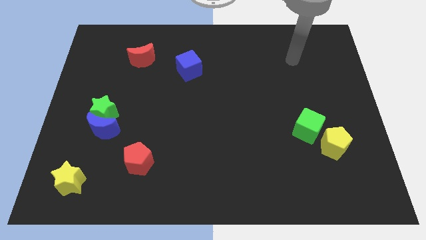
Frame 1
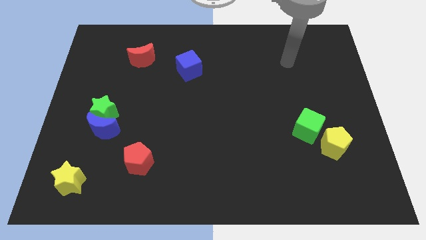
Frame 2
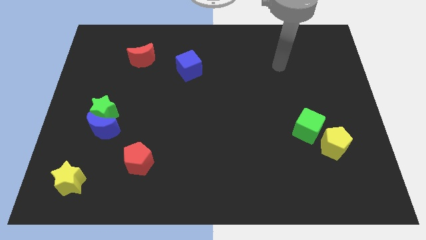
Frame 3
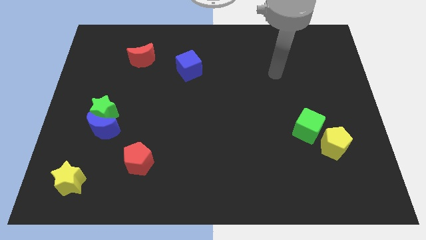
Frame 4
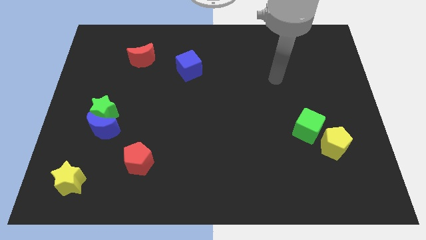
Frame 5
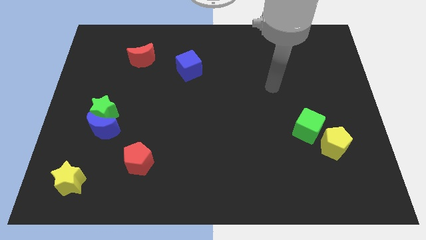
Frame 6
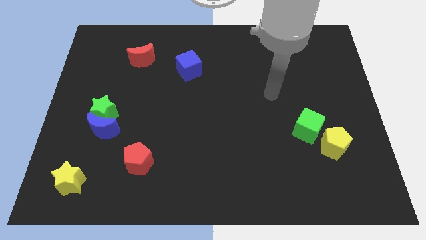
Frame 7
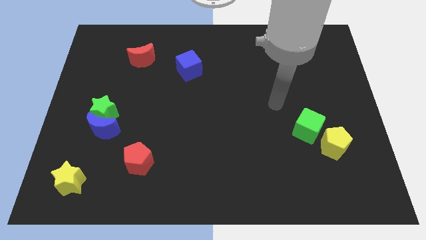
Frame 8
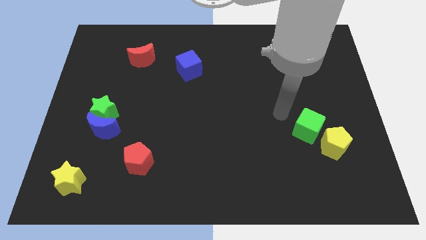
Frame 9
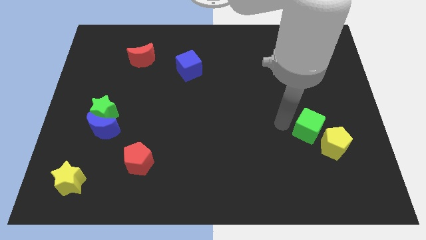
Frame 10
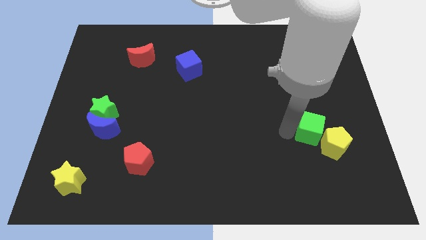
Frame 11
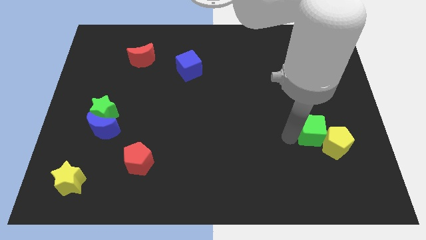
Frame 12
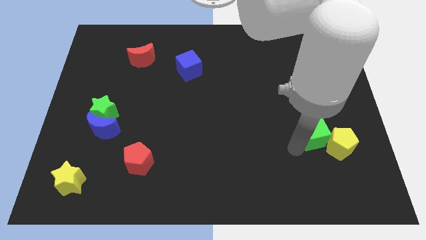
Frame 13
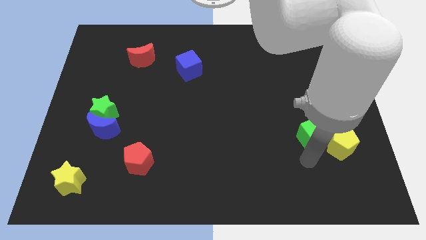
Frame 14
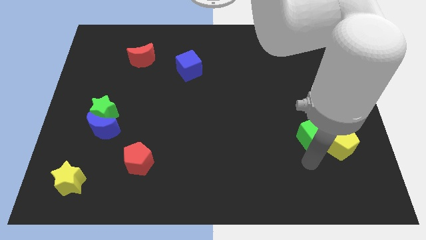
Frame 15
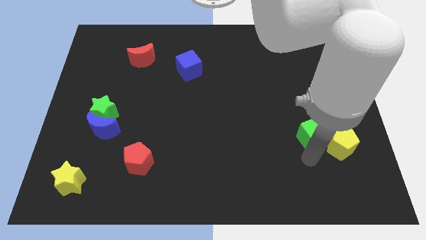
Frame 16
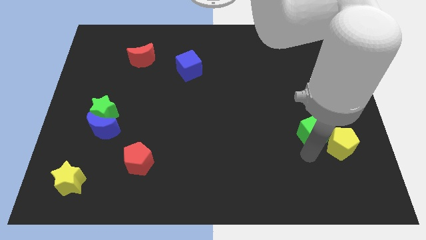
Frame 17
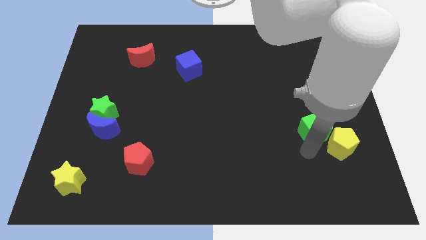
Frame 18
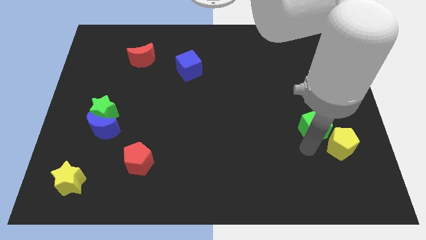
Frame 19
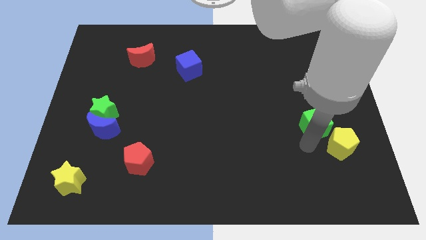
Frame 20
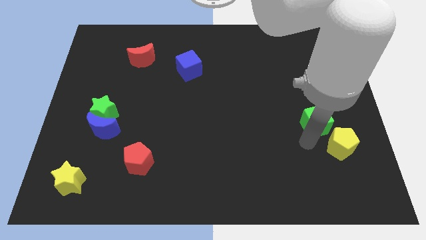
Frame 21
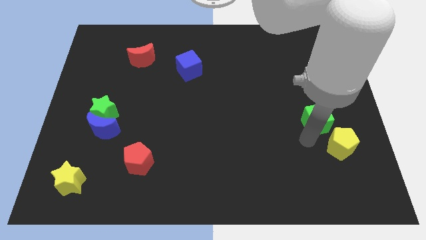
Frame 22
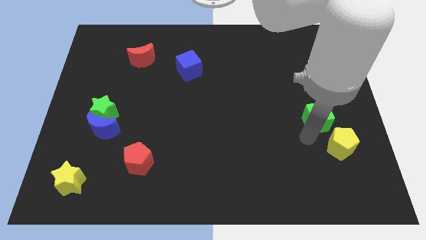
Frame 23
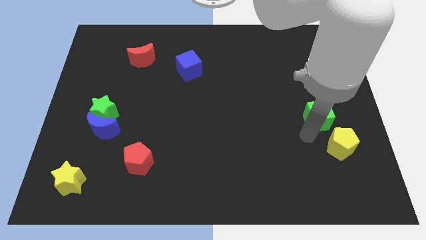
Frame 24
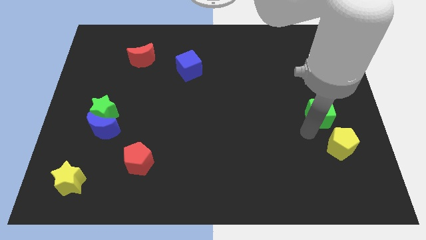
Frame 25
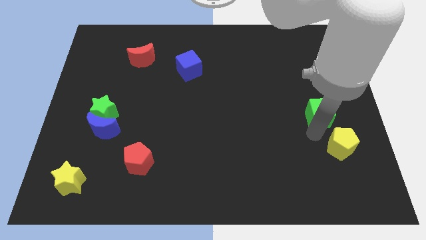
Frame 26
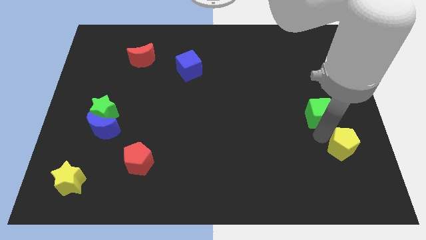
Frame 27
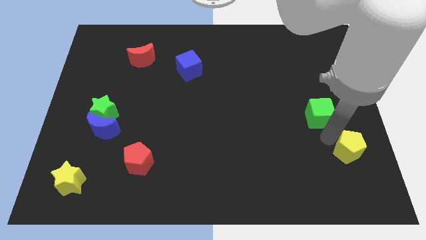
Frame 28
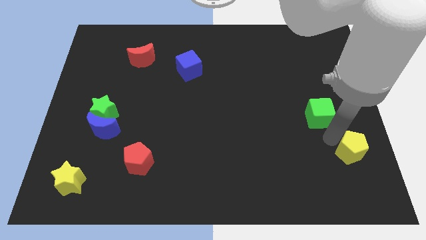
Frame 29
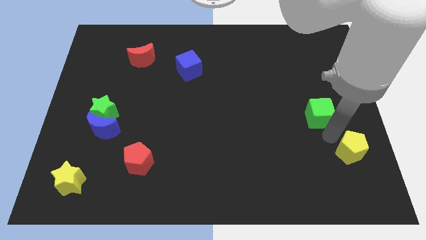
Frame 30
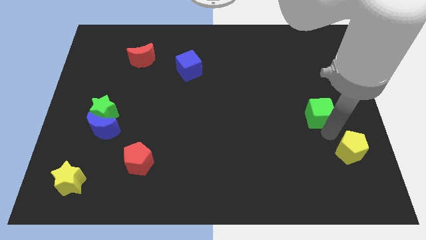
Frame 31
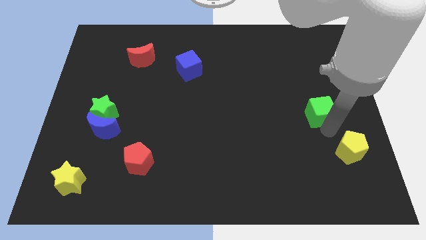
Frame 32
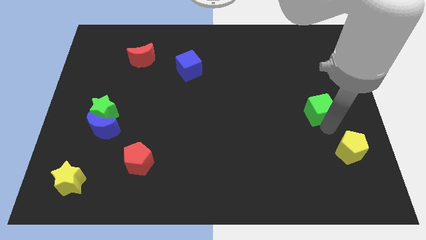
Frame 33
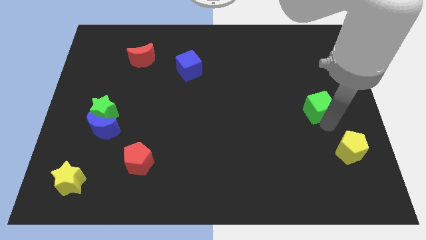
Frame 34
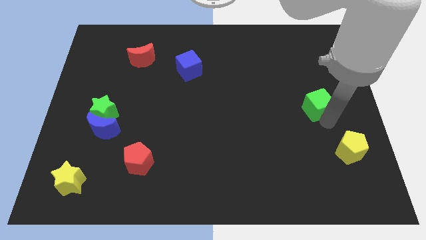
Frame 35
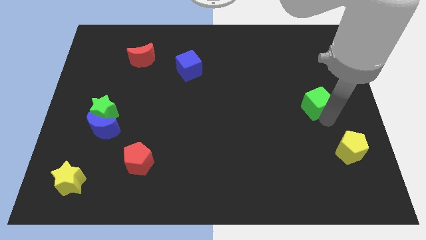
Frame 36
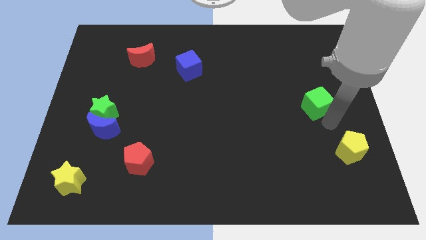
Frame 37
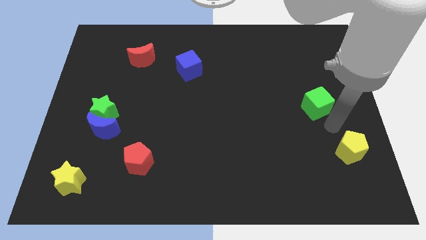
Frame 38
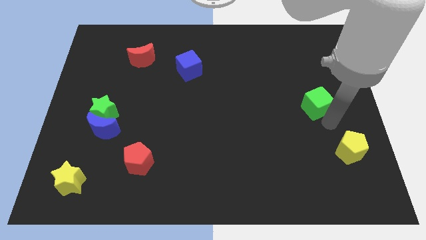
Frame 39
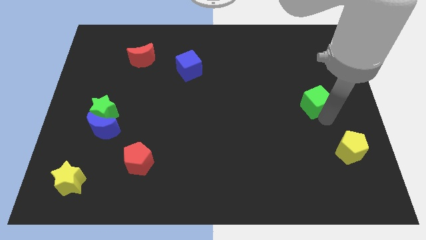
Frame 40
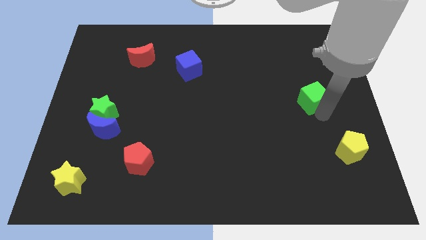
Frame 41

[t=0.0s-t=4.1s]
move the green cube a little upwards

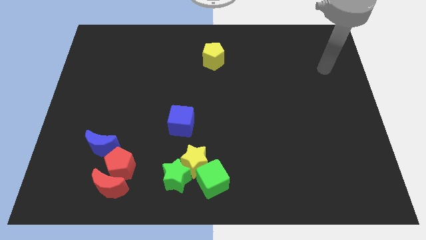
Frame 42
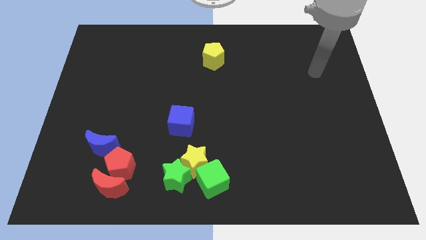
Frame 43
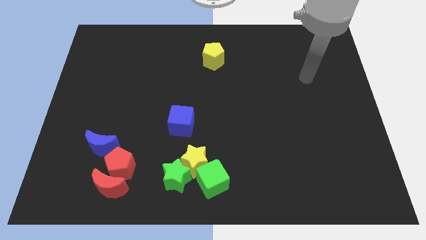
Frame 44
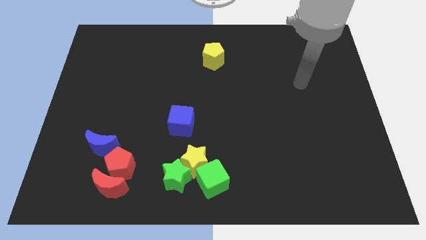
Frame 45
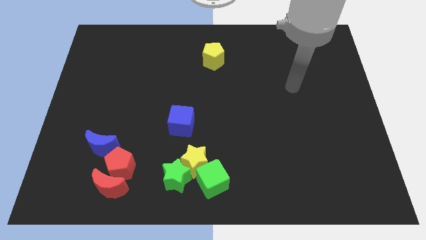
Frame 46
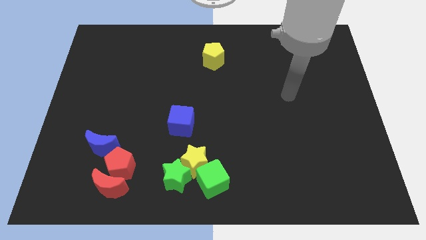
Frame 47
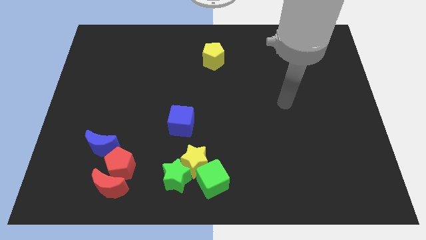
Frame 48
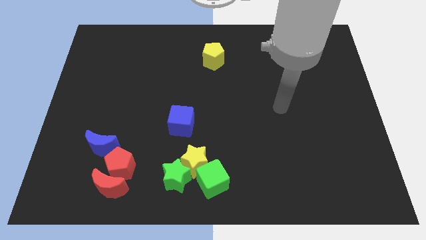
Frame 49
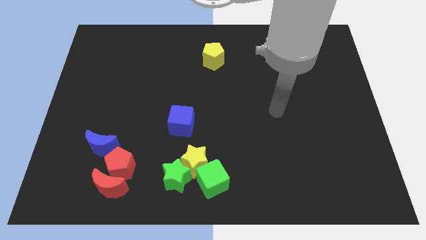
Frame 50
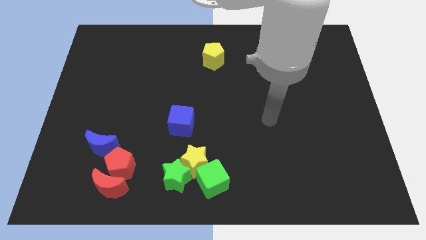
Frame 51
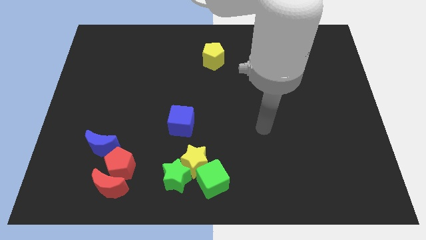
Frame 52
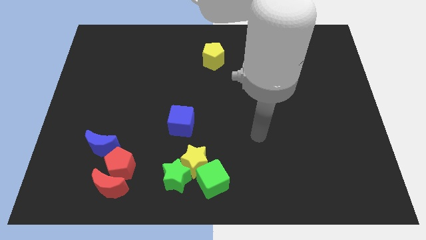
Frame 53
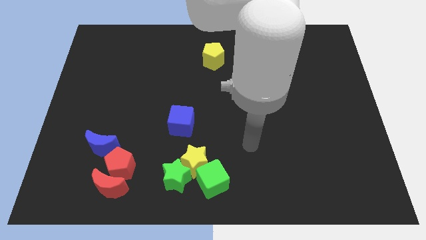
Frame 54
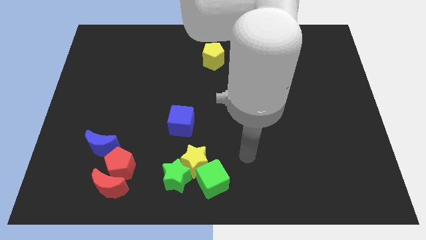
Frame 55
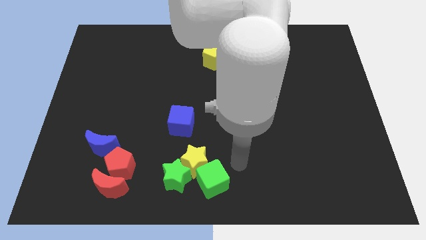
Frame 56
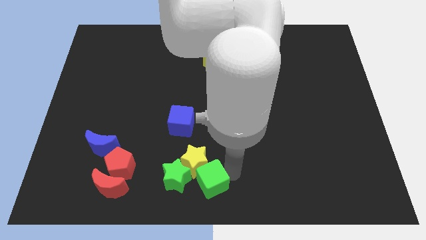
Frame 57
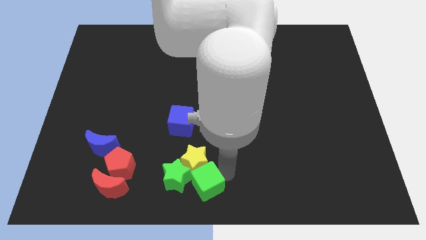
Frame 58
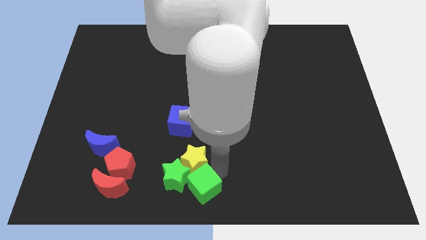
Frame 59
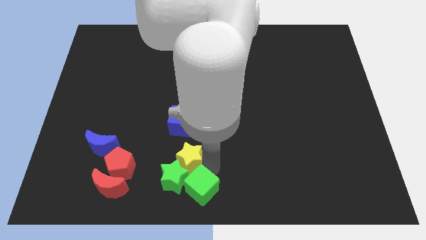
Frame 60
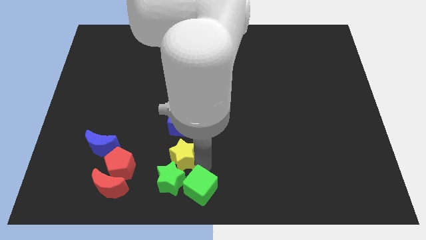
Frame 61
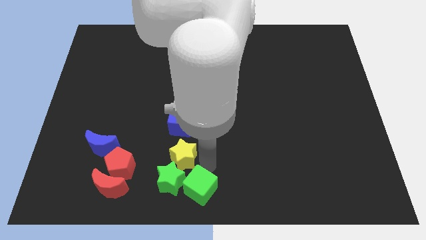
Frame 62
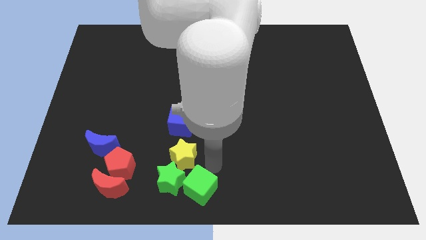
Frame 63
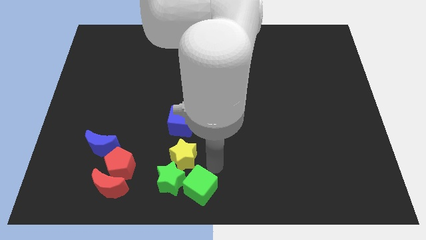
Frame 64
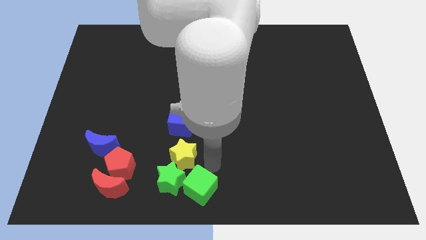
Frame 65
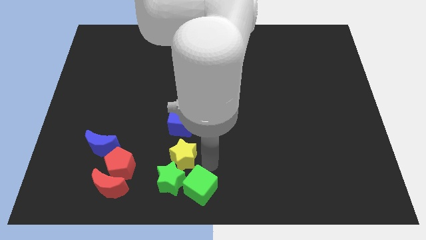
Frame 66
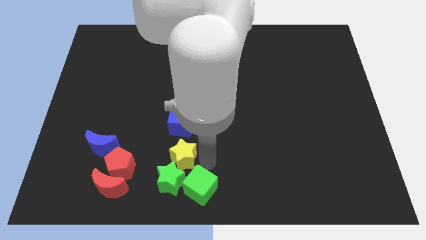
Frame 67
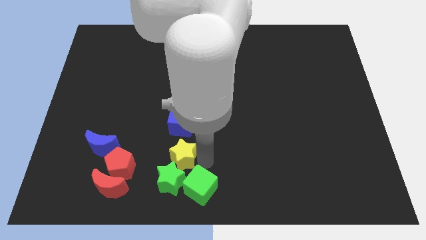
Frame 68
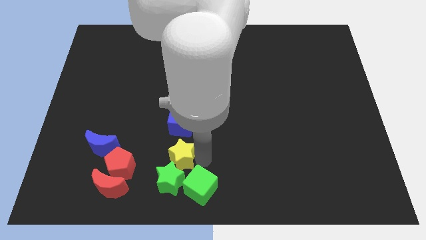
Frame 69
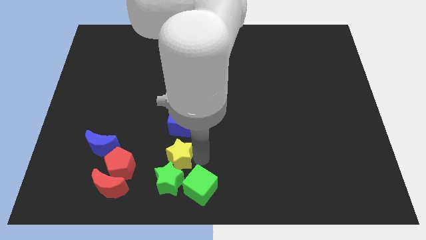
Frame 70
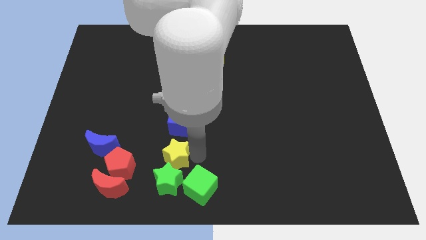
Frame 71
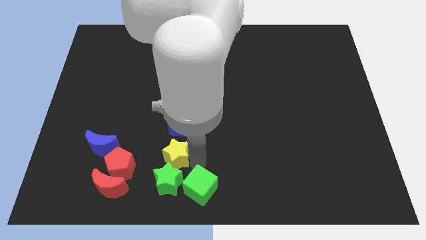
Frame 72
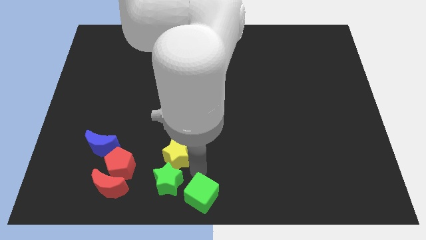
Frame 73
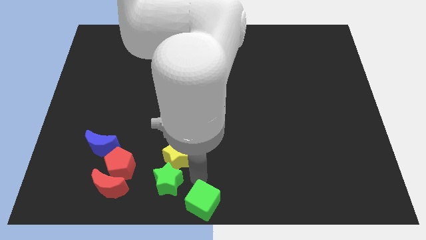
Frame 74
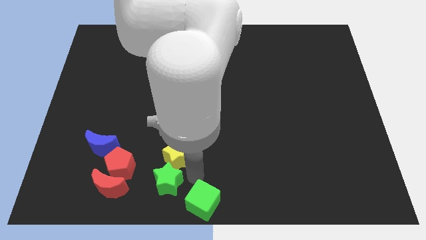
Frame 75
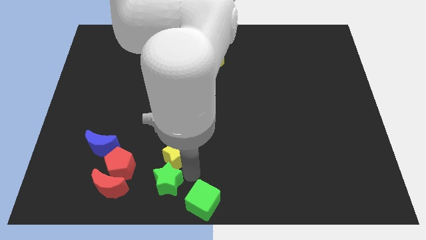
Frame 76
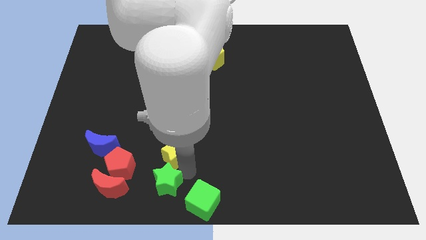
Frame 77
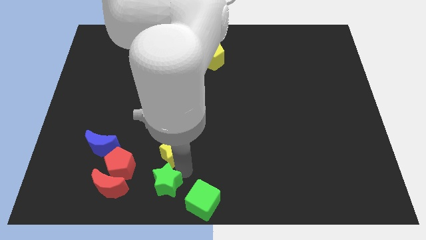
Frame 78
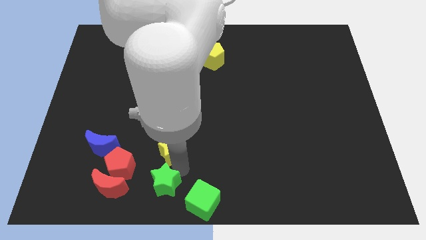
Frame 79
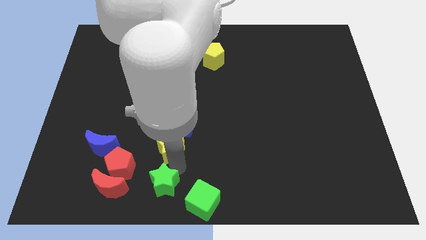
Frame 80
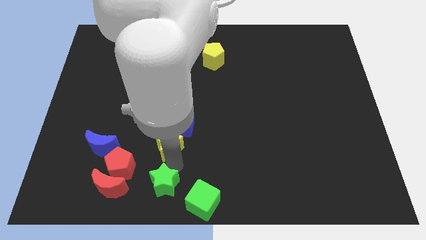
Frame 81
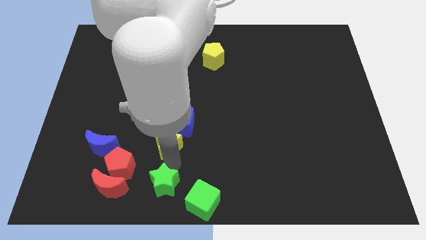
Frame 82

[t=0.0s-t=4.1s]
move the yellow star somewhat upwards and left

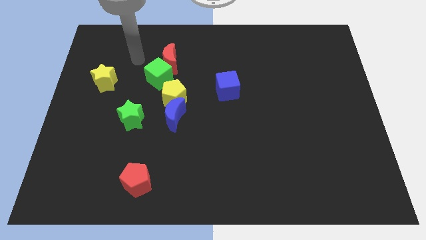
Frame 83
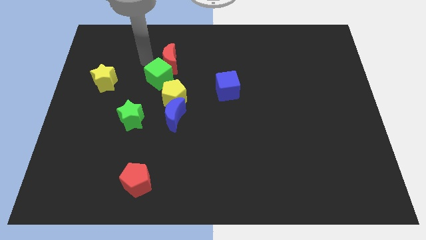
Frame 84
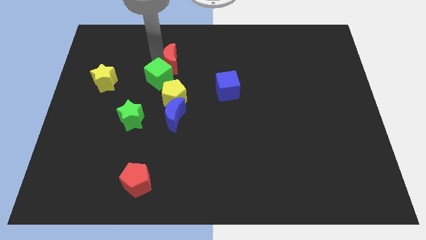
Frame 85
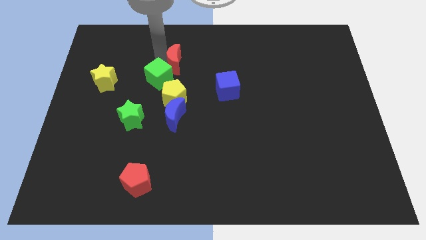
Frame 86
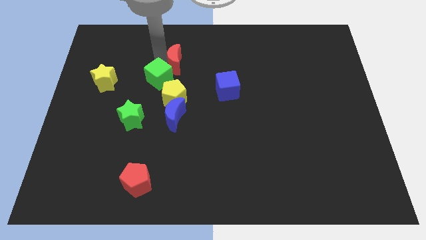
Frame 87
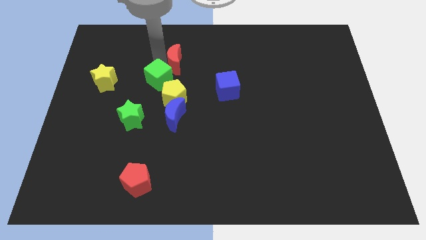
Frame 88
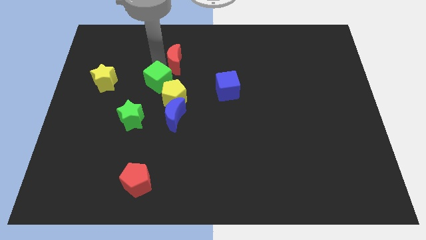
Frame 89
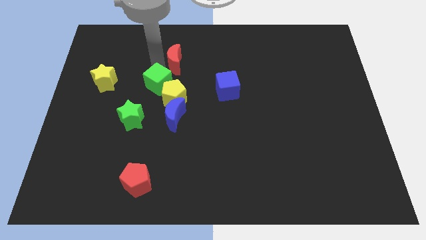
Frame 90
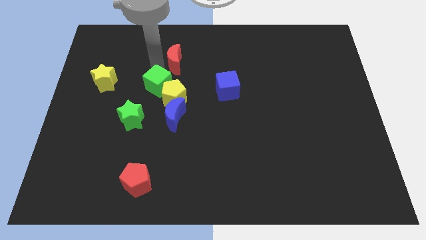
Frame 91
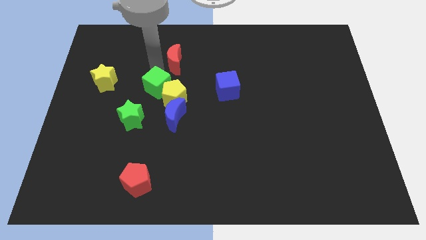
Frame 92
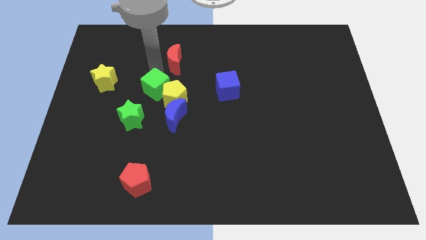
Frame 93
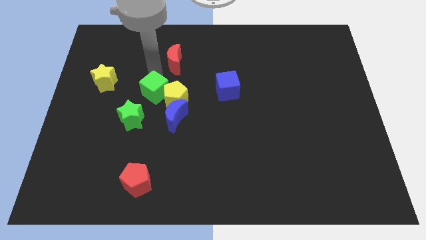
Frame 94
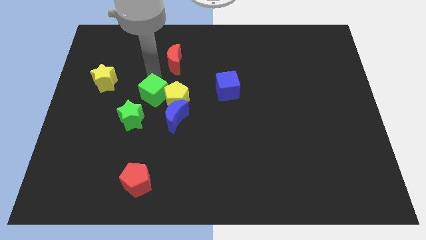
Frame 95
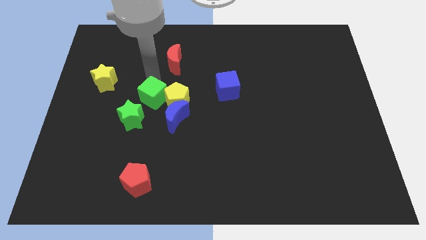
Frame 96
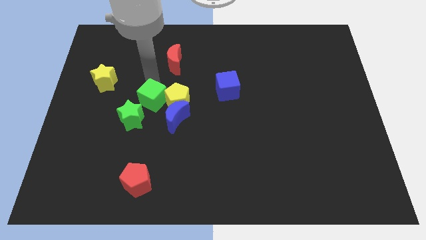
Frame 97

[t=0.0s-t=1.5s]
move the green cube down a little
